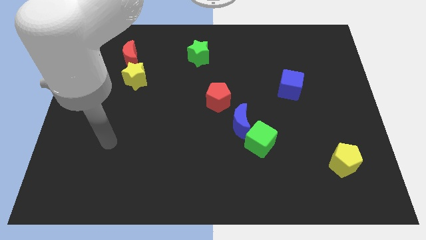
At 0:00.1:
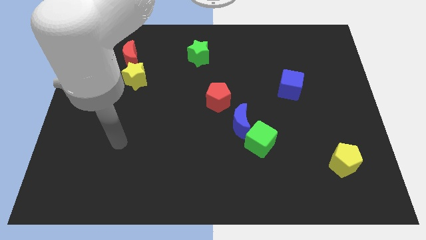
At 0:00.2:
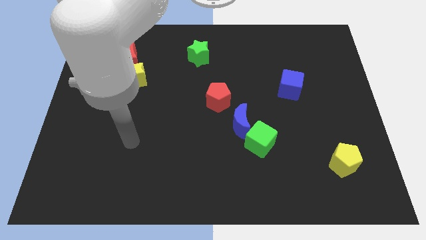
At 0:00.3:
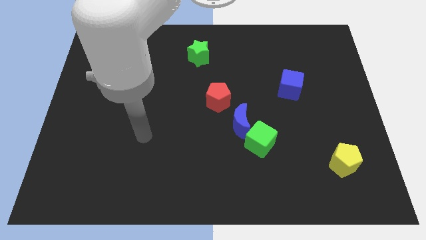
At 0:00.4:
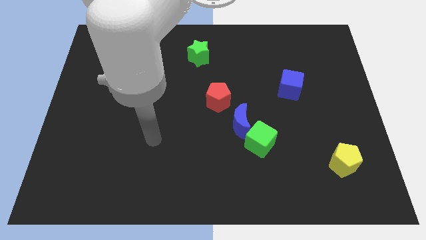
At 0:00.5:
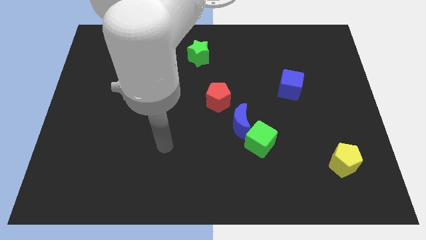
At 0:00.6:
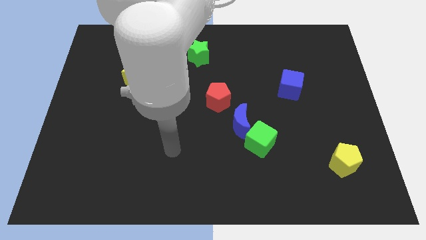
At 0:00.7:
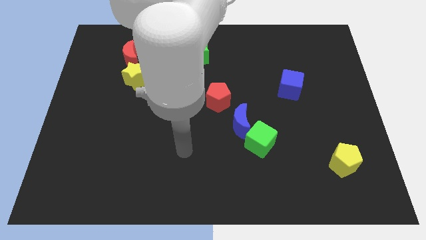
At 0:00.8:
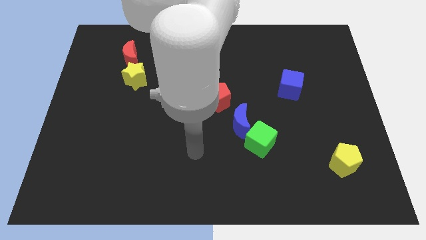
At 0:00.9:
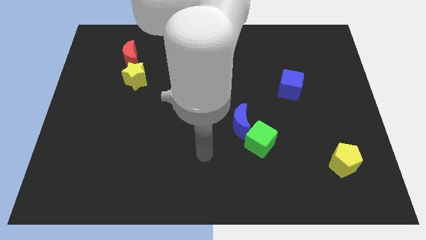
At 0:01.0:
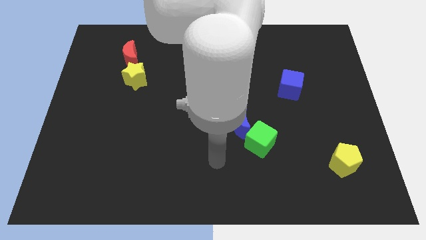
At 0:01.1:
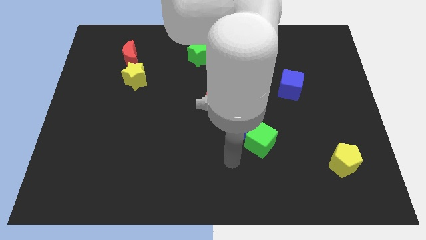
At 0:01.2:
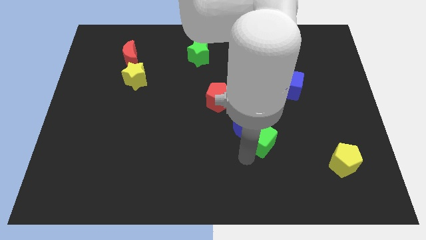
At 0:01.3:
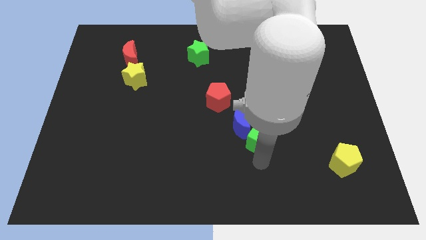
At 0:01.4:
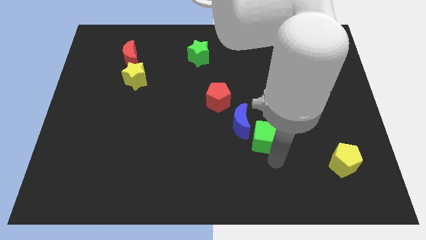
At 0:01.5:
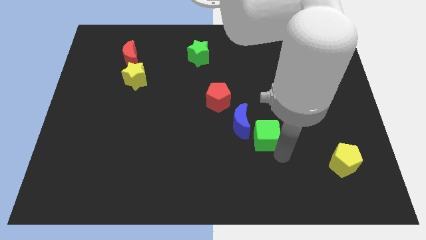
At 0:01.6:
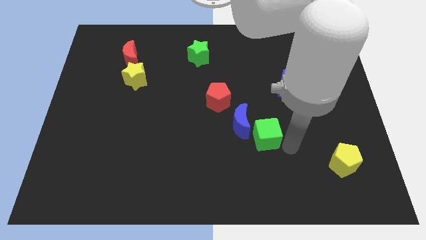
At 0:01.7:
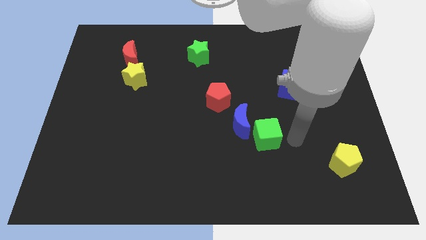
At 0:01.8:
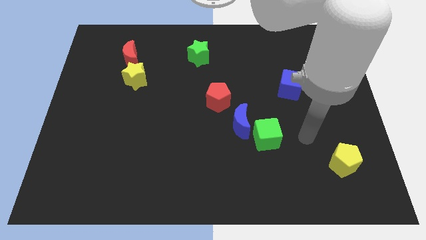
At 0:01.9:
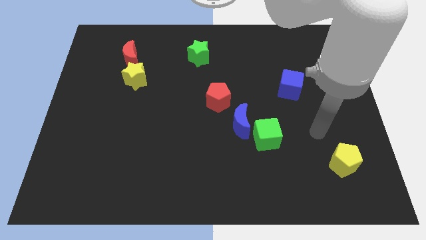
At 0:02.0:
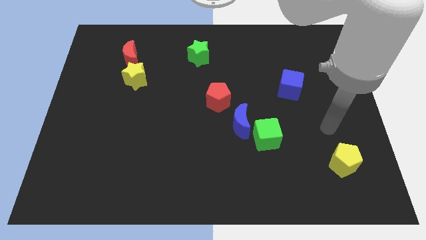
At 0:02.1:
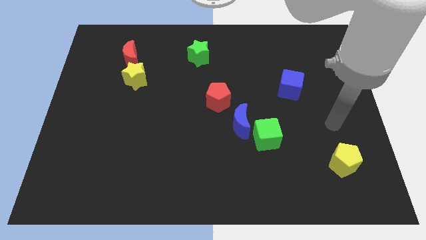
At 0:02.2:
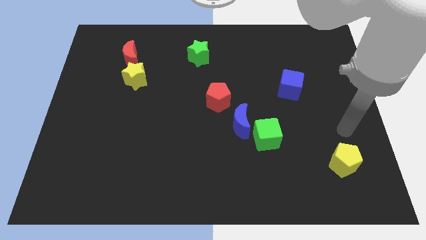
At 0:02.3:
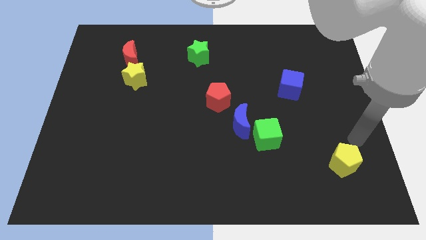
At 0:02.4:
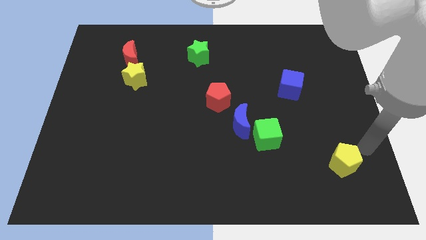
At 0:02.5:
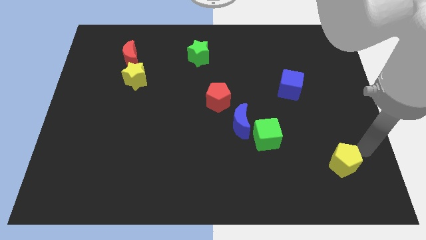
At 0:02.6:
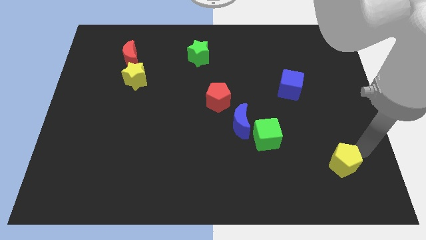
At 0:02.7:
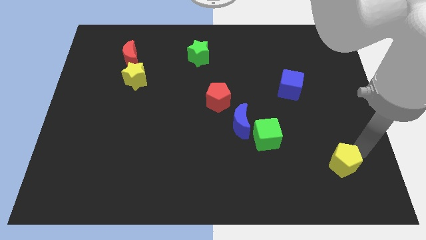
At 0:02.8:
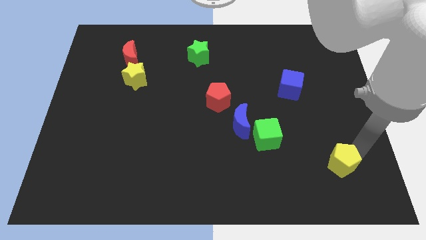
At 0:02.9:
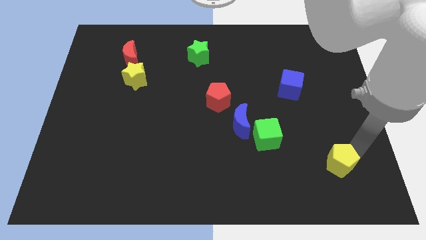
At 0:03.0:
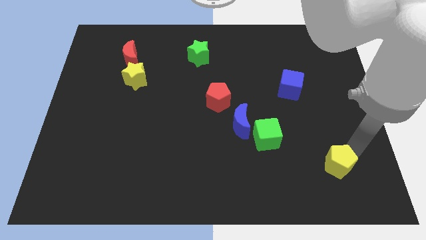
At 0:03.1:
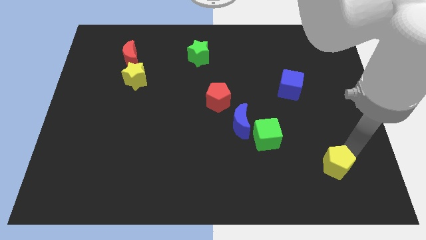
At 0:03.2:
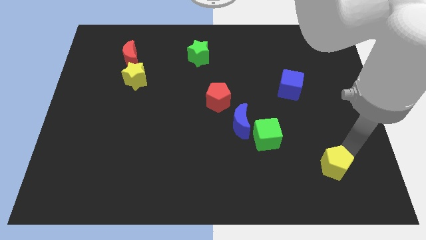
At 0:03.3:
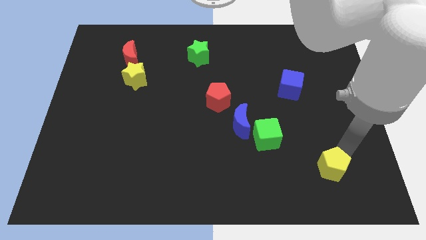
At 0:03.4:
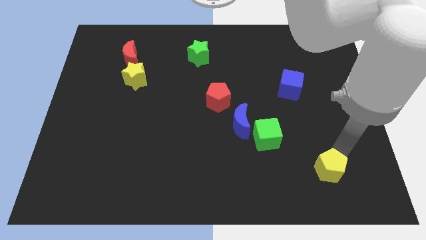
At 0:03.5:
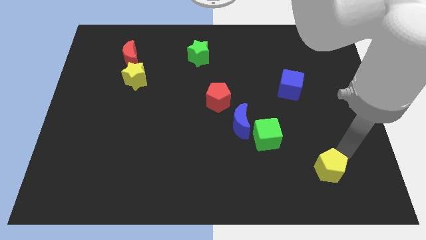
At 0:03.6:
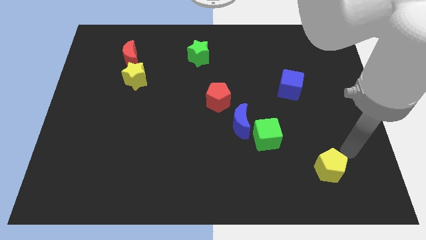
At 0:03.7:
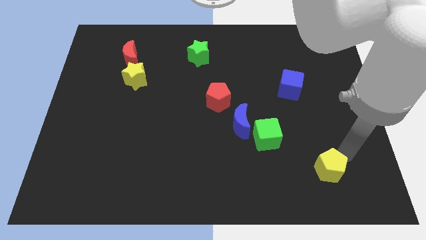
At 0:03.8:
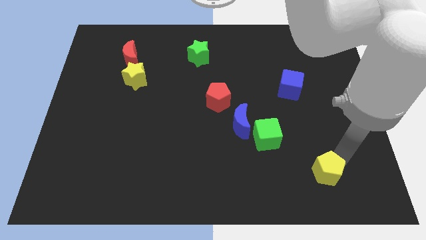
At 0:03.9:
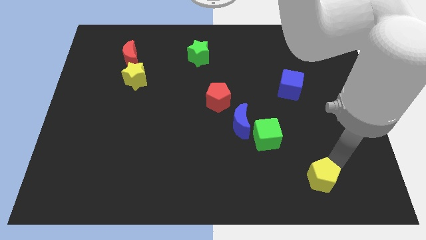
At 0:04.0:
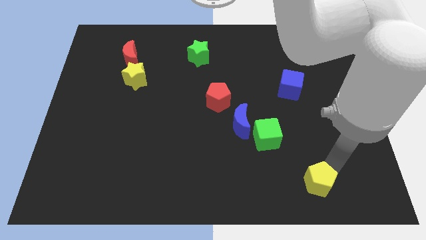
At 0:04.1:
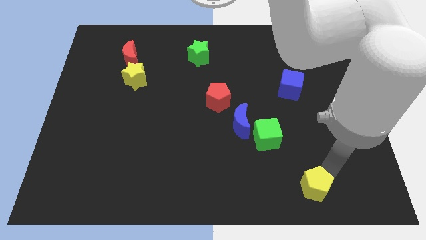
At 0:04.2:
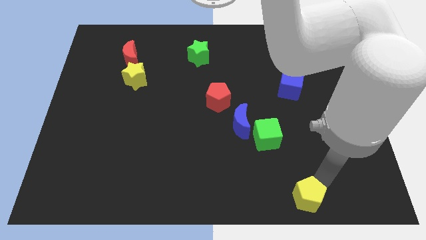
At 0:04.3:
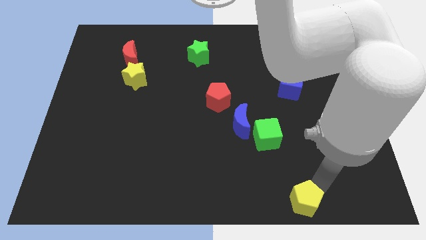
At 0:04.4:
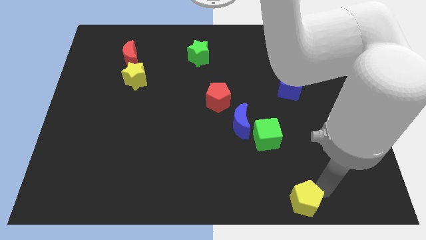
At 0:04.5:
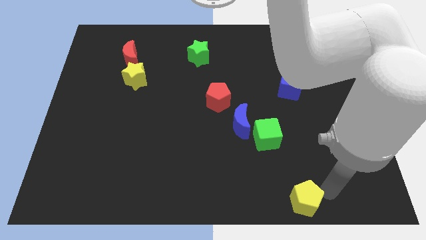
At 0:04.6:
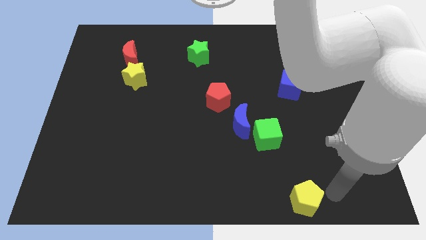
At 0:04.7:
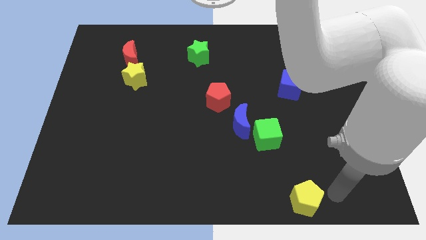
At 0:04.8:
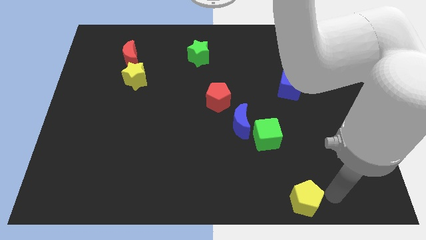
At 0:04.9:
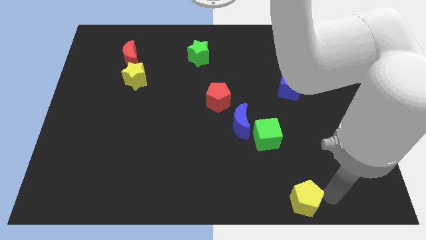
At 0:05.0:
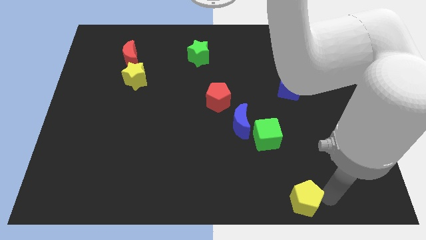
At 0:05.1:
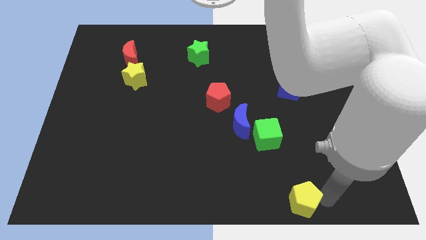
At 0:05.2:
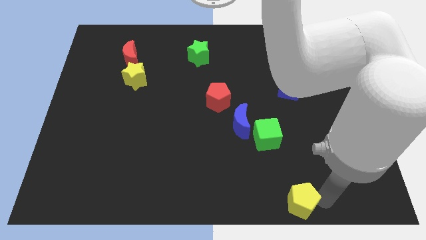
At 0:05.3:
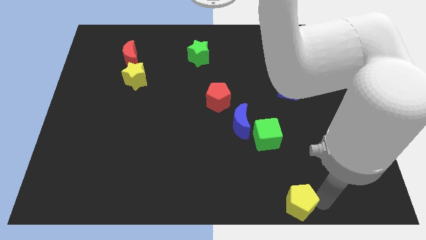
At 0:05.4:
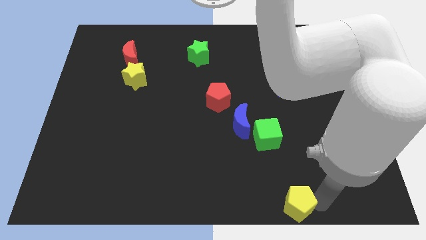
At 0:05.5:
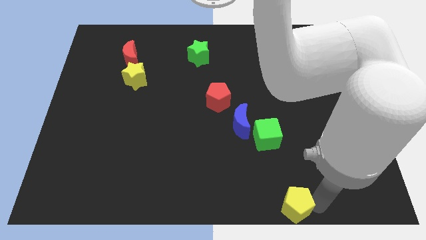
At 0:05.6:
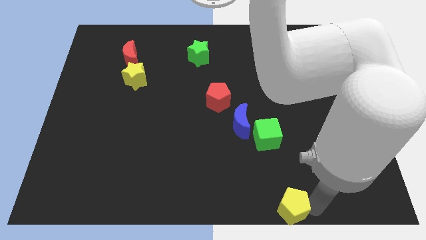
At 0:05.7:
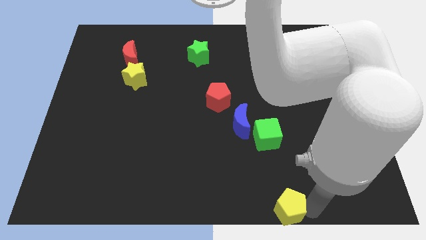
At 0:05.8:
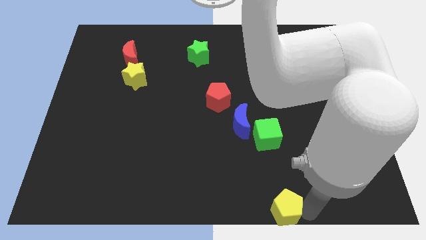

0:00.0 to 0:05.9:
put the yellow pentagon to the bottom side

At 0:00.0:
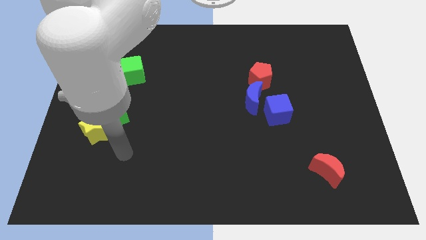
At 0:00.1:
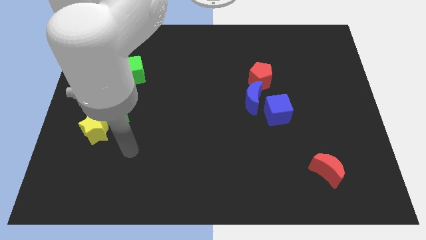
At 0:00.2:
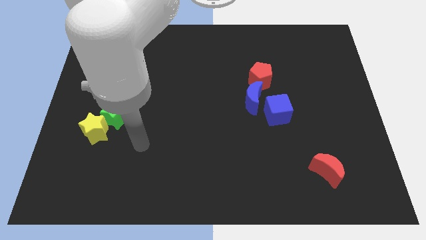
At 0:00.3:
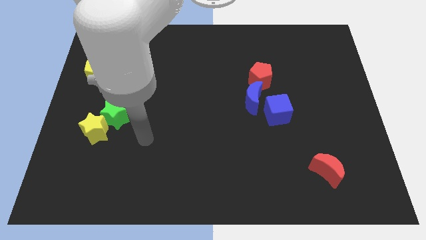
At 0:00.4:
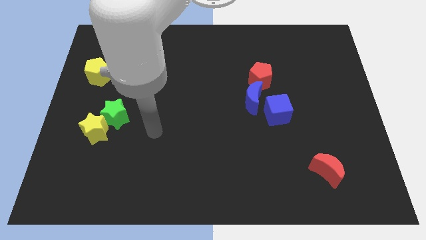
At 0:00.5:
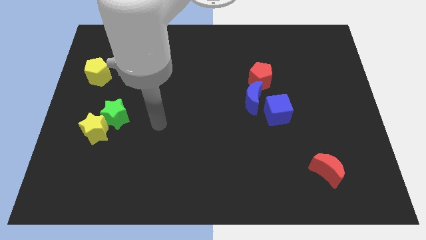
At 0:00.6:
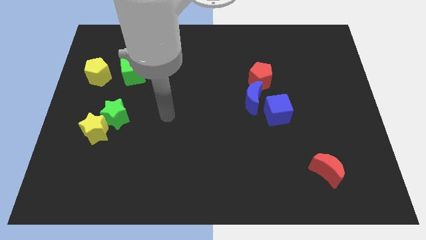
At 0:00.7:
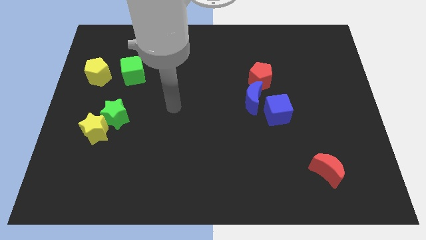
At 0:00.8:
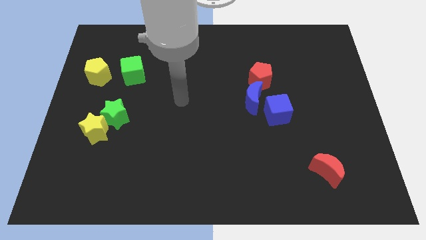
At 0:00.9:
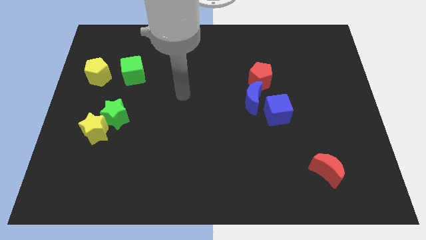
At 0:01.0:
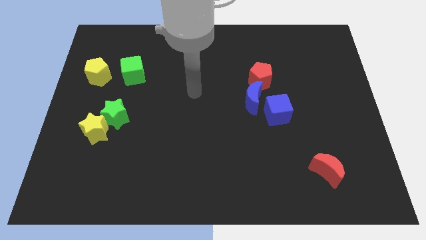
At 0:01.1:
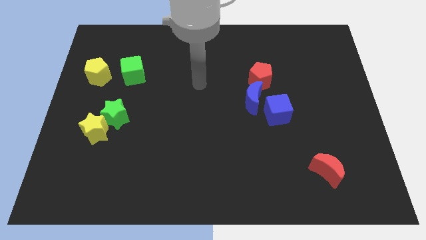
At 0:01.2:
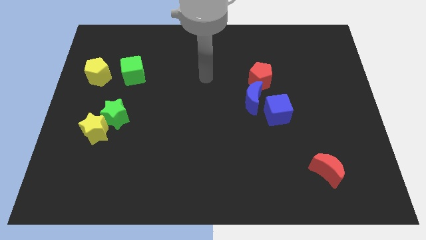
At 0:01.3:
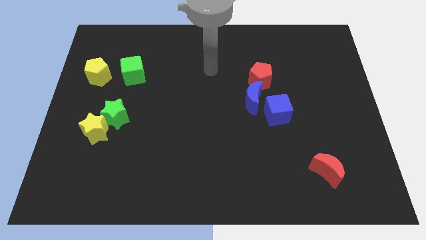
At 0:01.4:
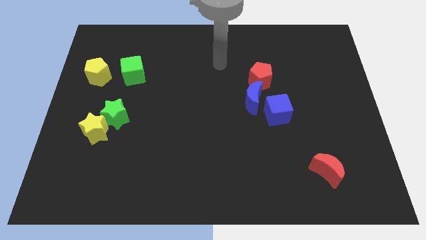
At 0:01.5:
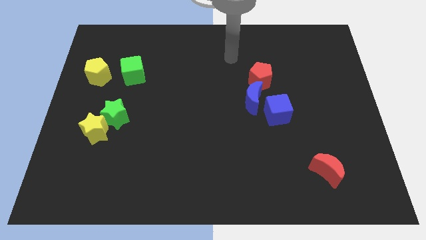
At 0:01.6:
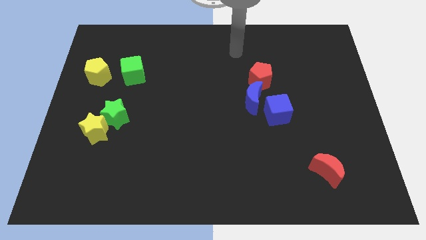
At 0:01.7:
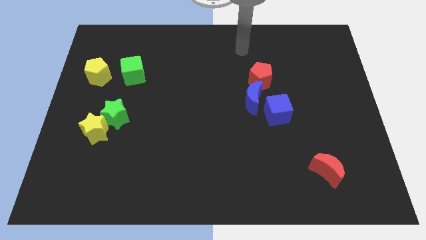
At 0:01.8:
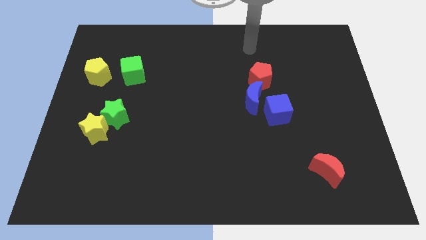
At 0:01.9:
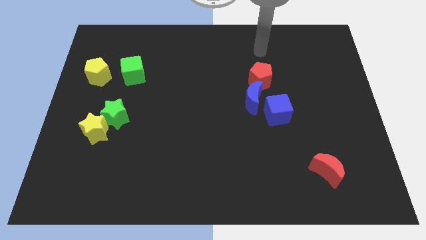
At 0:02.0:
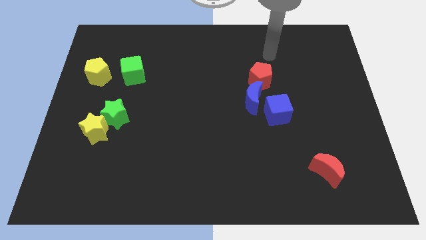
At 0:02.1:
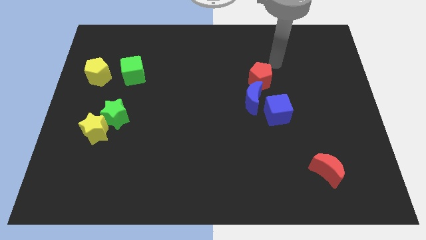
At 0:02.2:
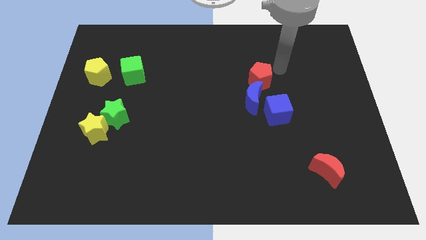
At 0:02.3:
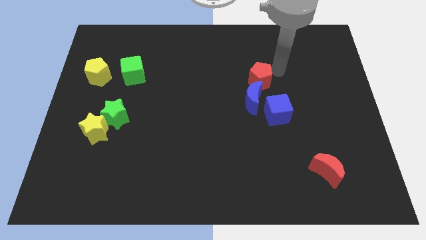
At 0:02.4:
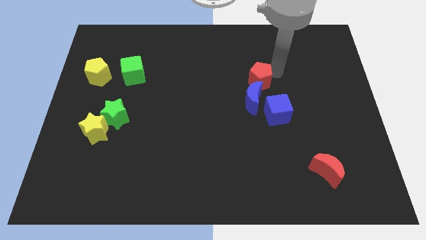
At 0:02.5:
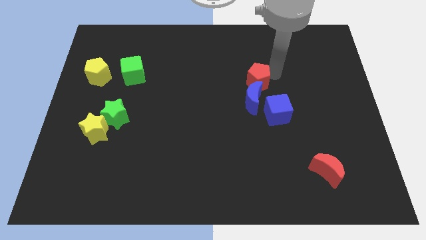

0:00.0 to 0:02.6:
push the red pentagon to the center of the board
